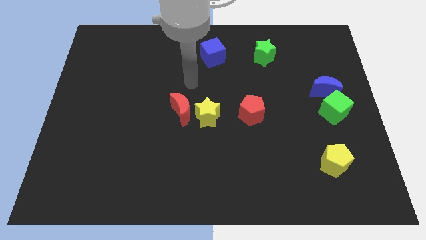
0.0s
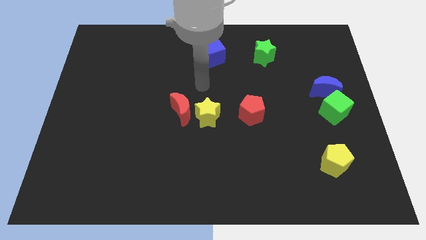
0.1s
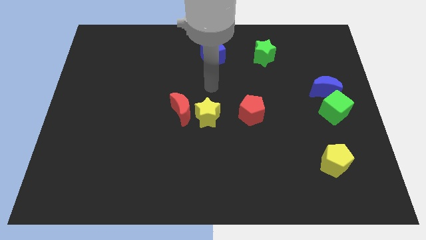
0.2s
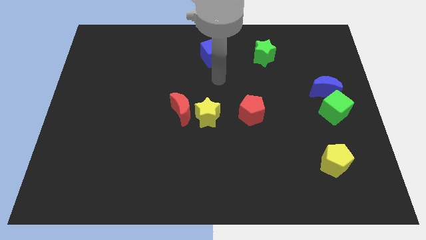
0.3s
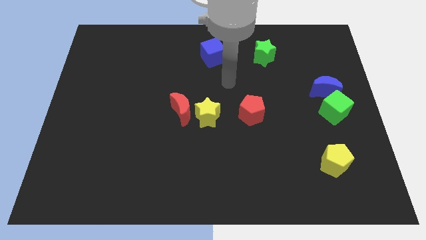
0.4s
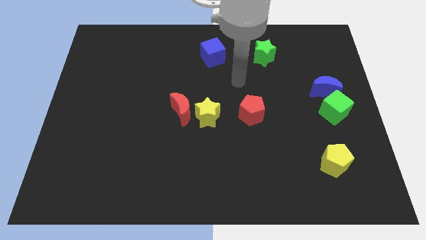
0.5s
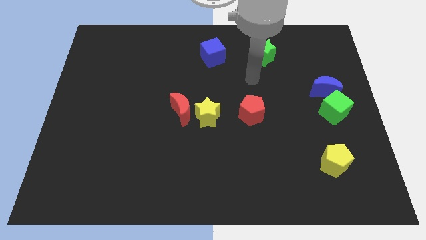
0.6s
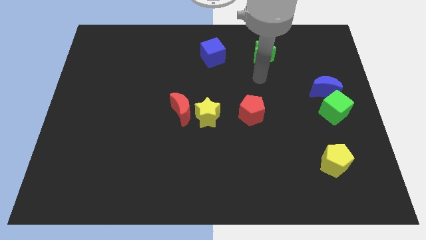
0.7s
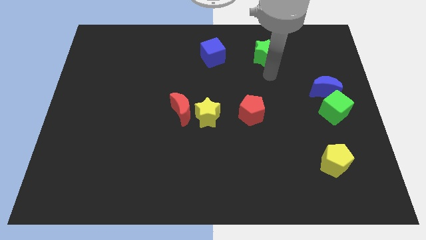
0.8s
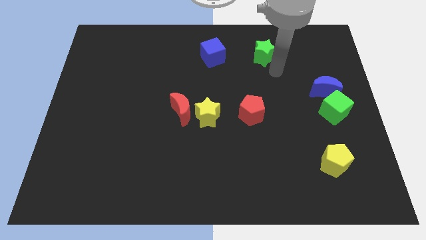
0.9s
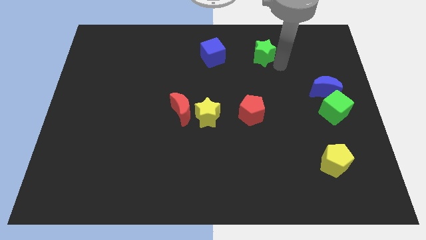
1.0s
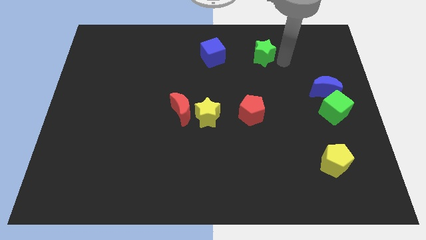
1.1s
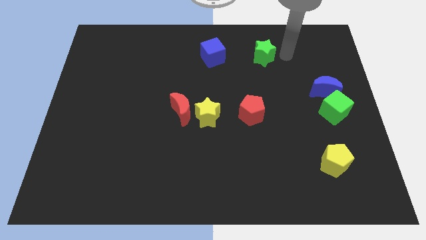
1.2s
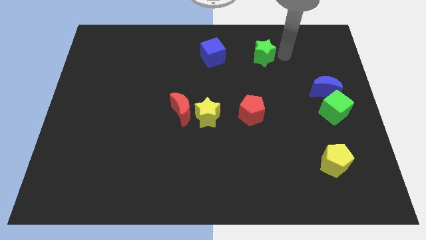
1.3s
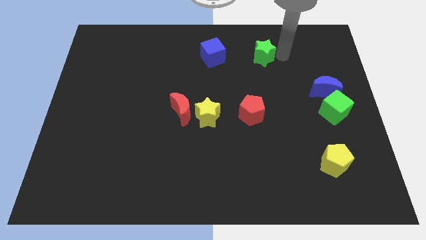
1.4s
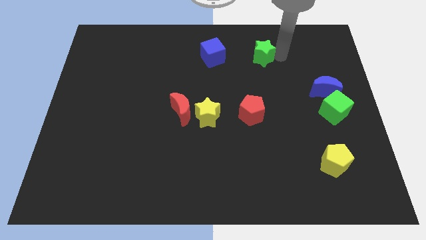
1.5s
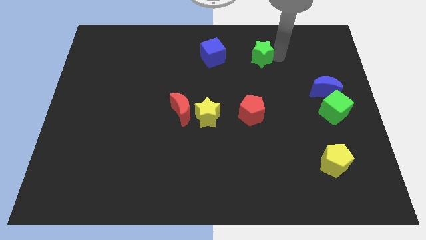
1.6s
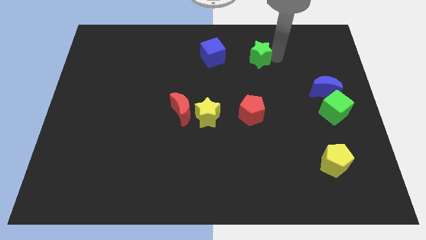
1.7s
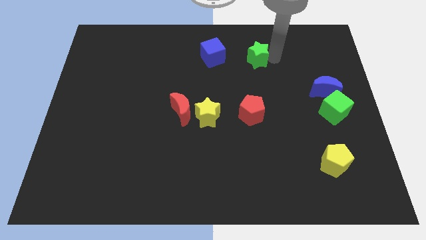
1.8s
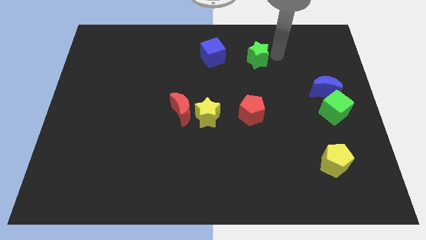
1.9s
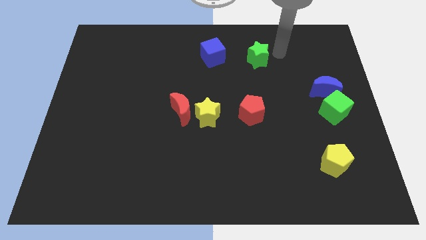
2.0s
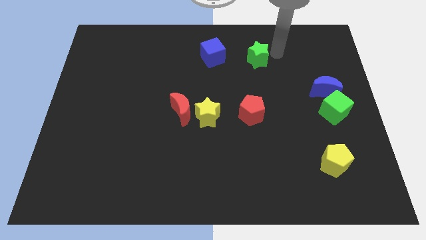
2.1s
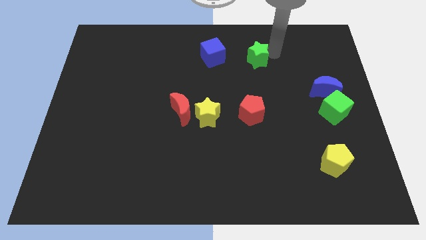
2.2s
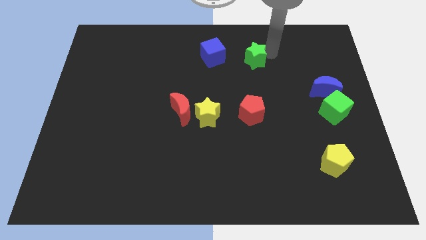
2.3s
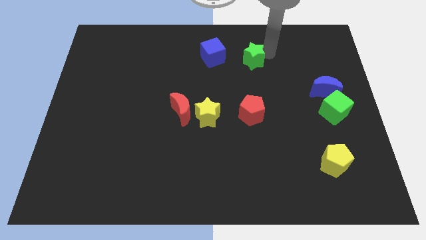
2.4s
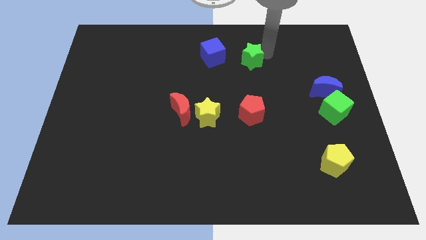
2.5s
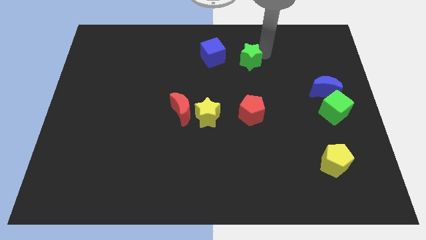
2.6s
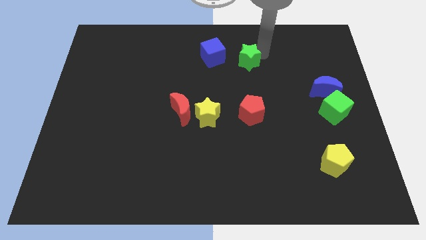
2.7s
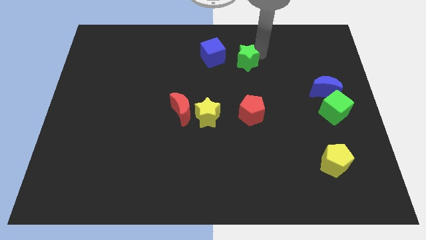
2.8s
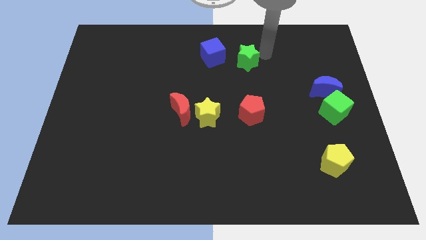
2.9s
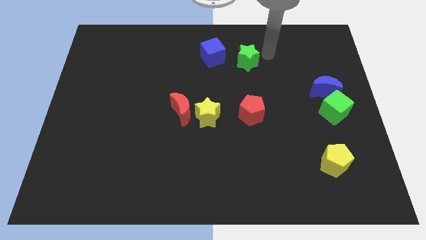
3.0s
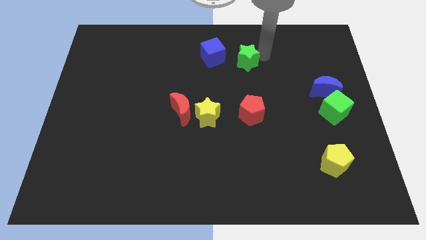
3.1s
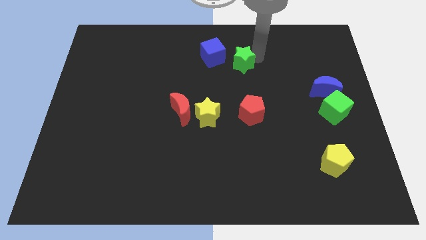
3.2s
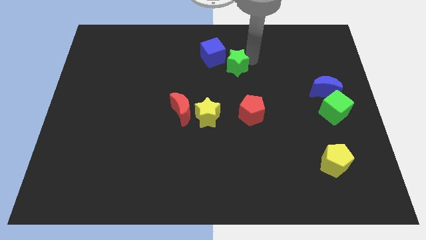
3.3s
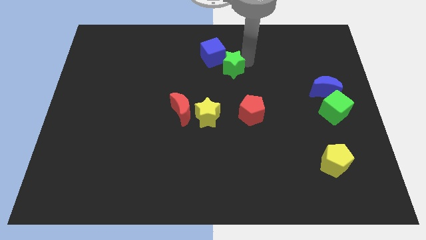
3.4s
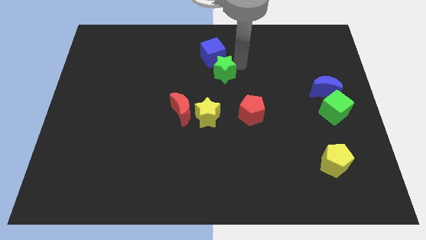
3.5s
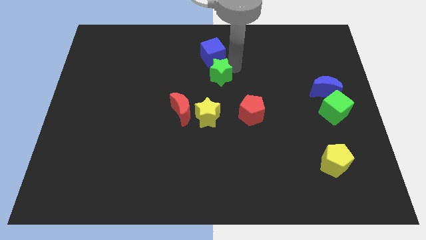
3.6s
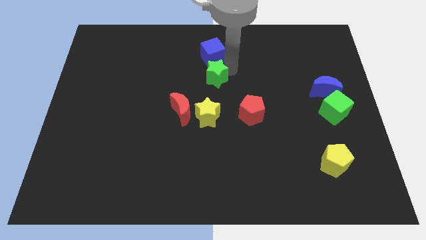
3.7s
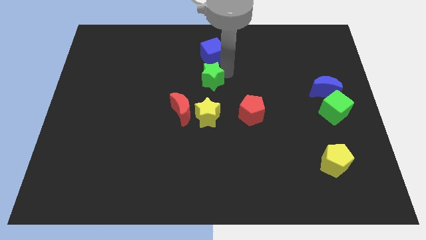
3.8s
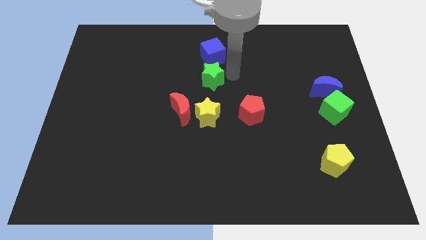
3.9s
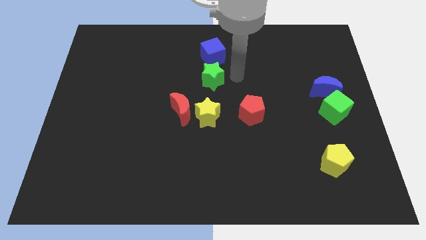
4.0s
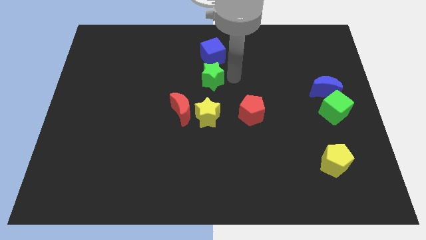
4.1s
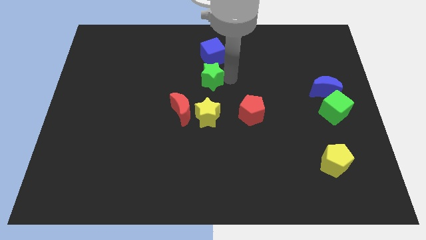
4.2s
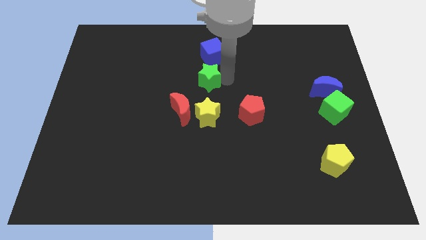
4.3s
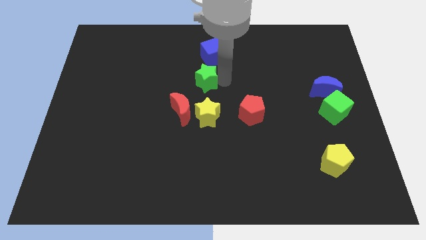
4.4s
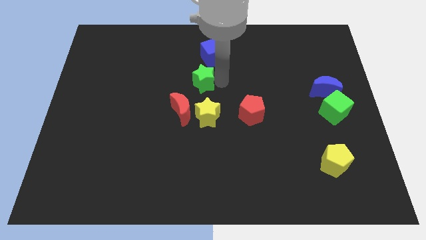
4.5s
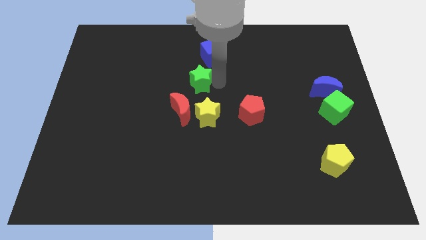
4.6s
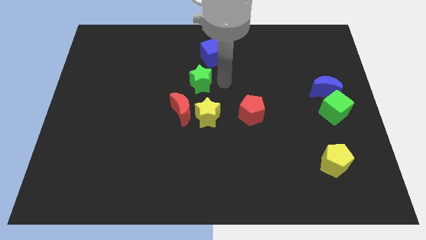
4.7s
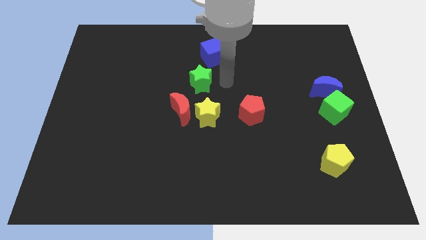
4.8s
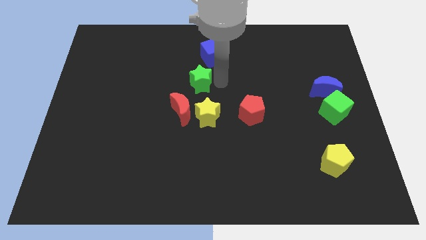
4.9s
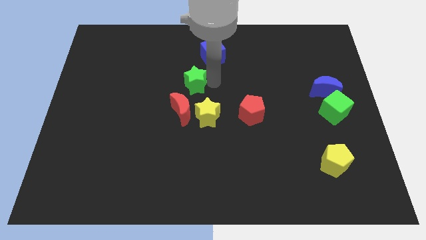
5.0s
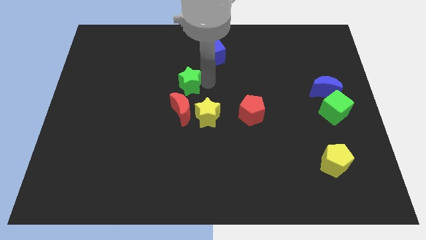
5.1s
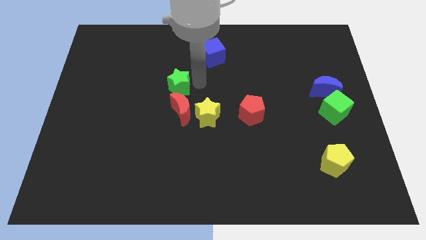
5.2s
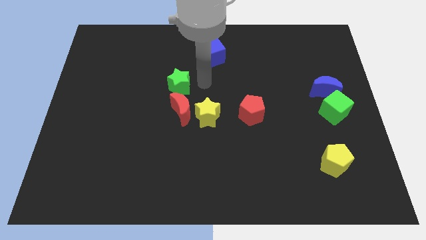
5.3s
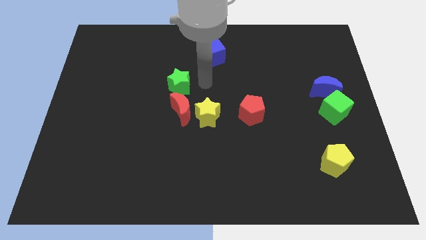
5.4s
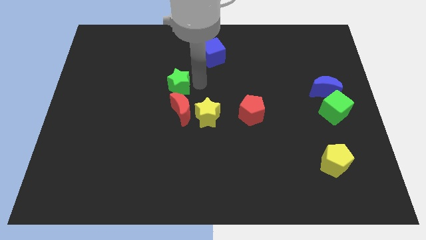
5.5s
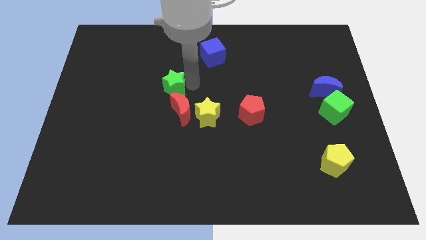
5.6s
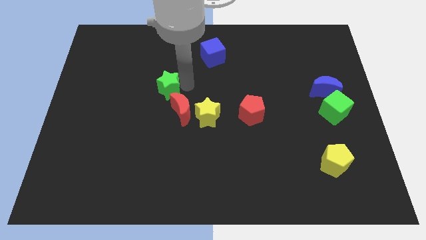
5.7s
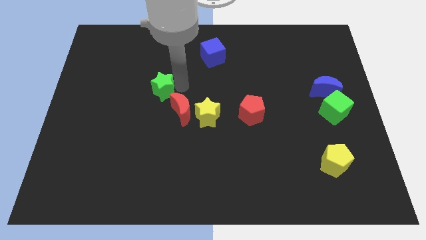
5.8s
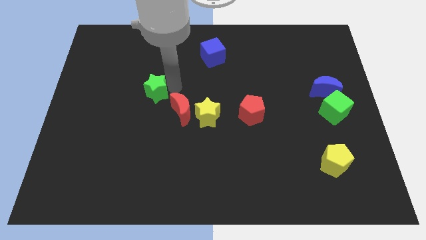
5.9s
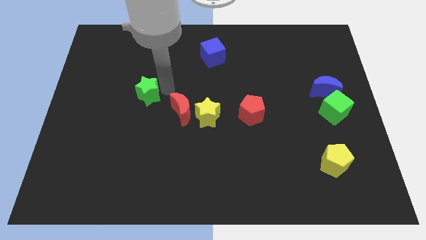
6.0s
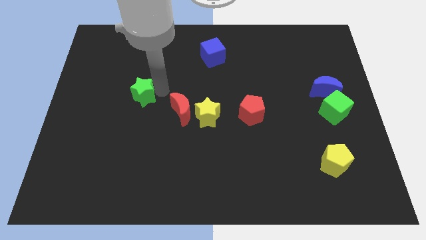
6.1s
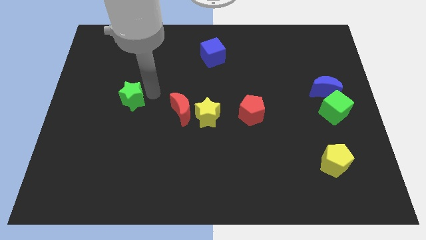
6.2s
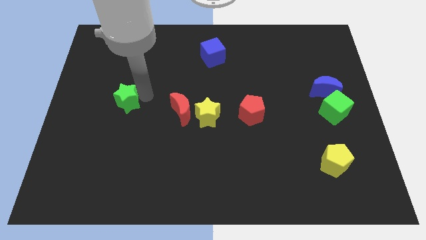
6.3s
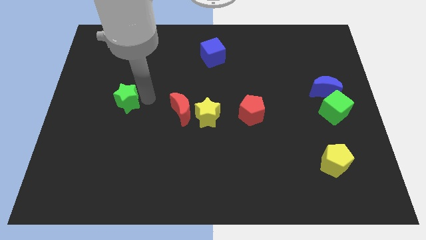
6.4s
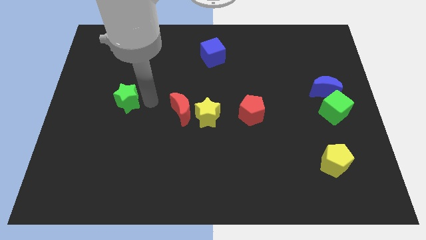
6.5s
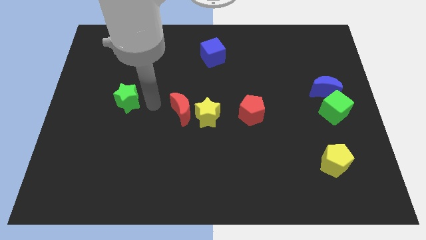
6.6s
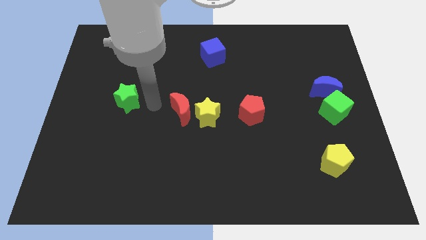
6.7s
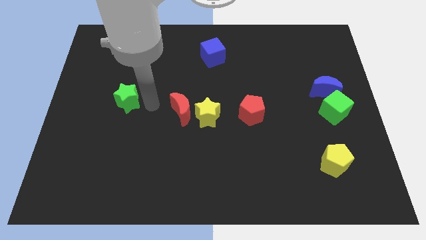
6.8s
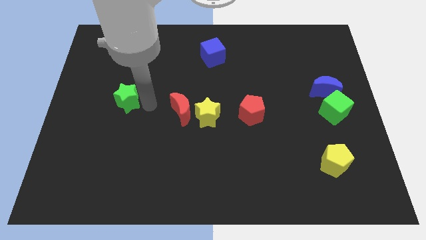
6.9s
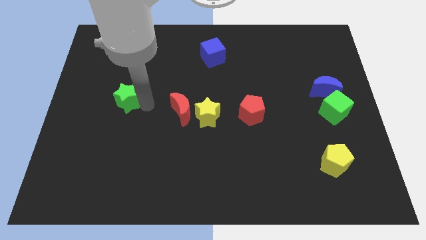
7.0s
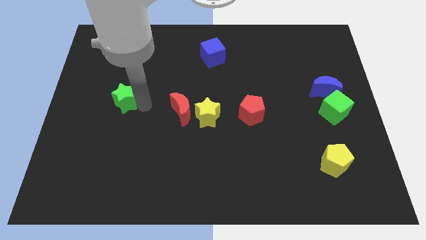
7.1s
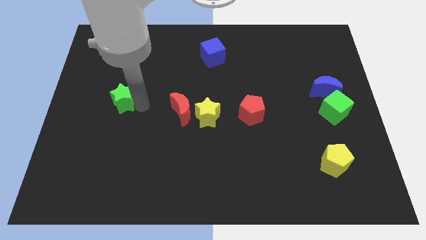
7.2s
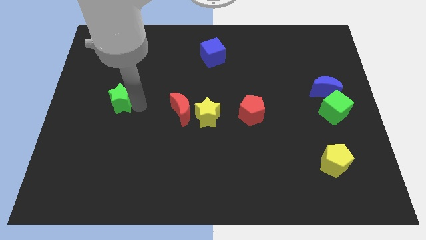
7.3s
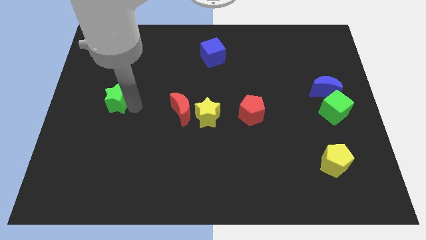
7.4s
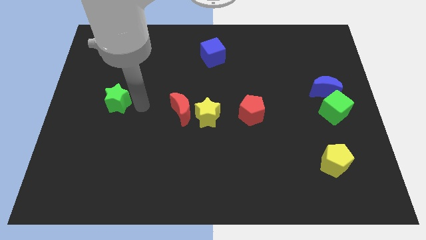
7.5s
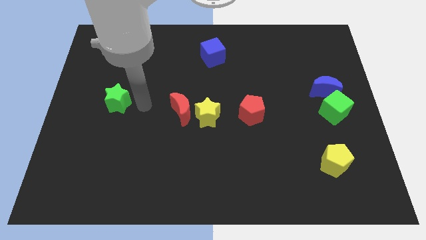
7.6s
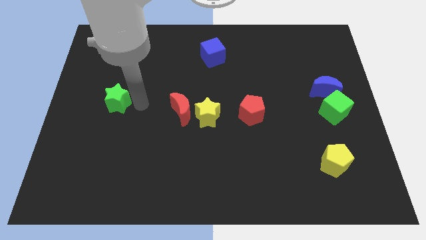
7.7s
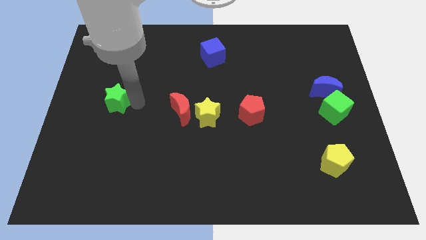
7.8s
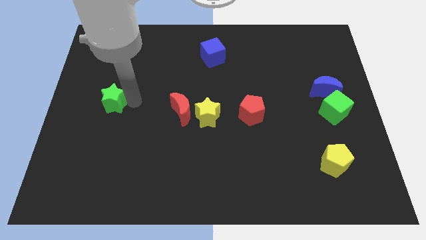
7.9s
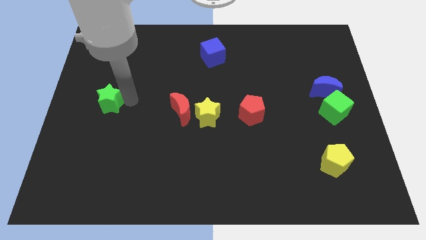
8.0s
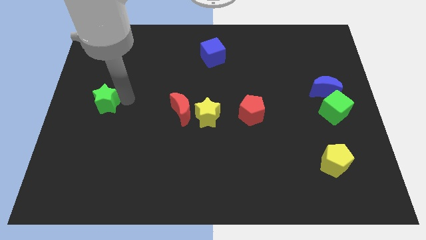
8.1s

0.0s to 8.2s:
push the green star to the left side
